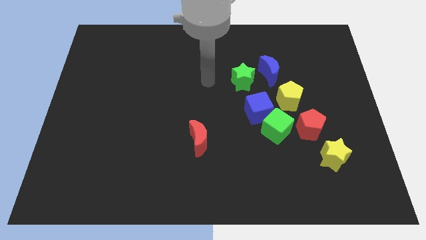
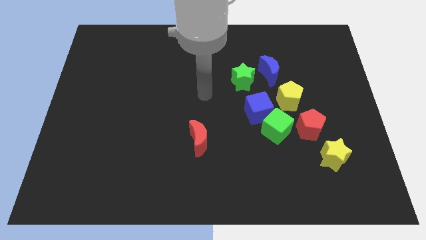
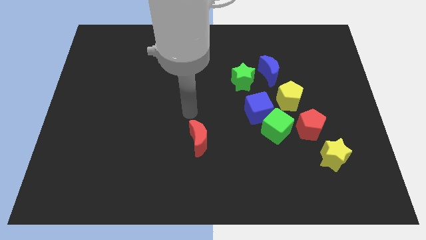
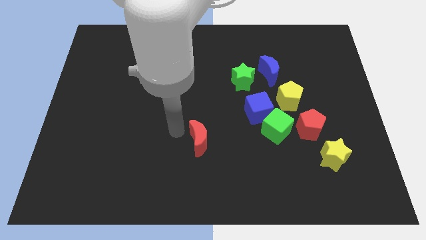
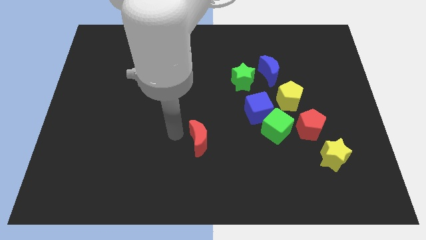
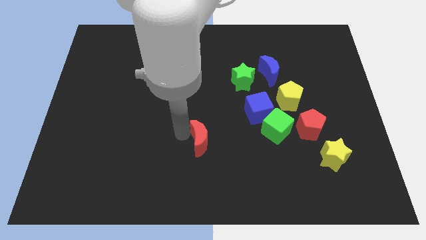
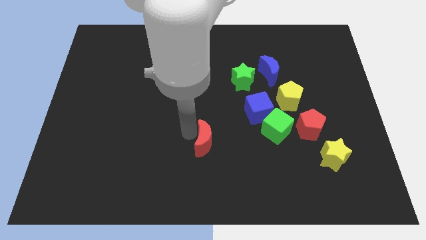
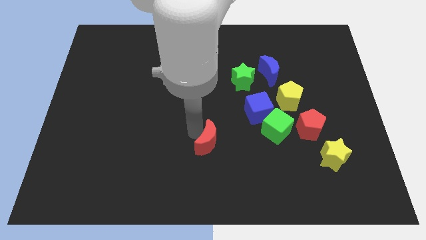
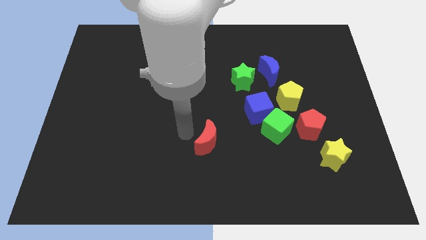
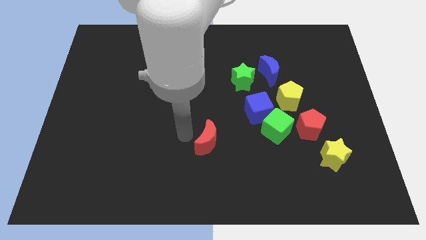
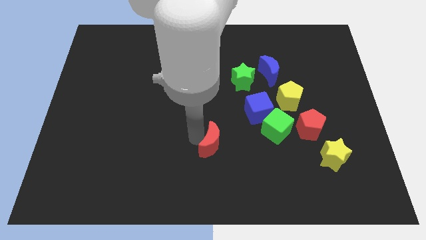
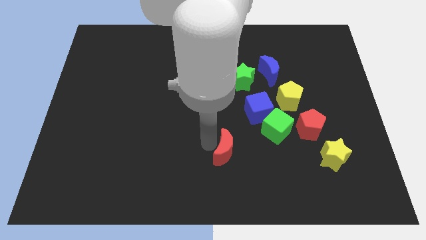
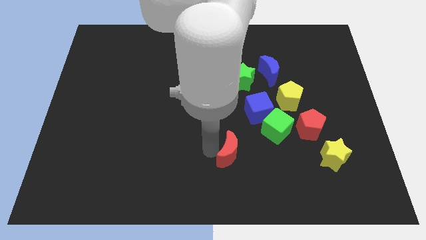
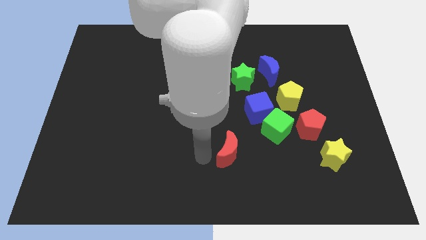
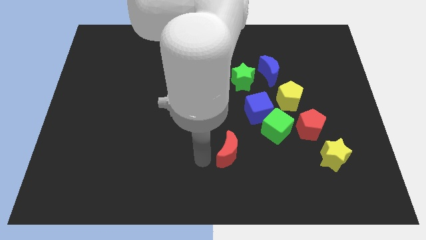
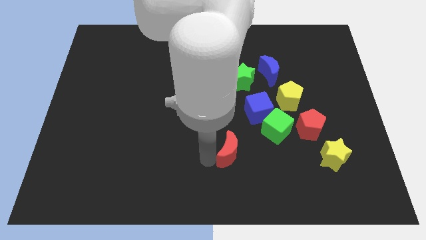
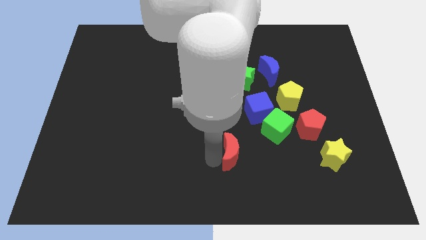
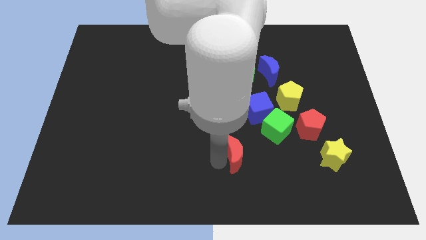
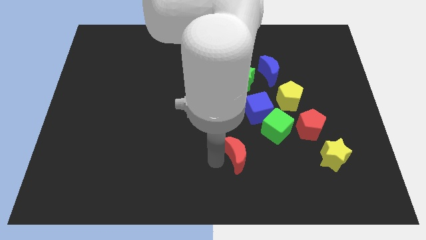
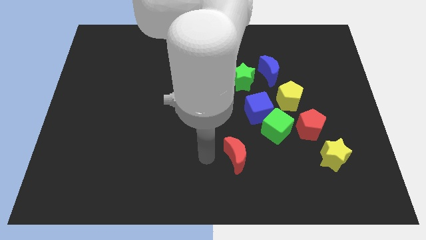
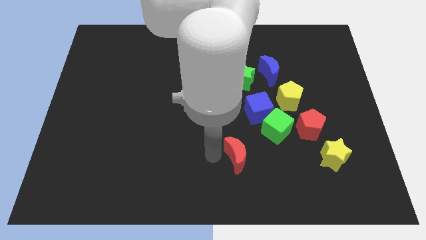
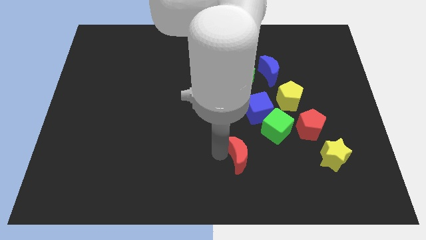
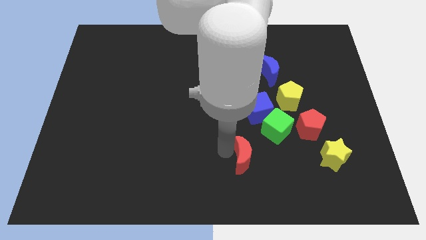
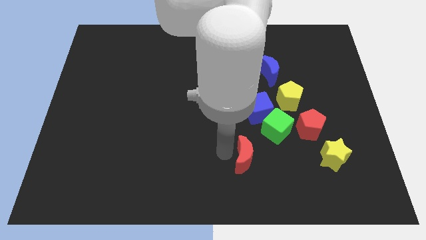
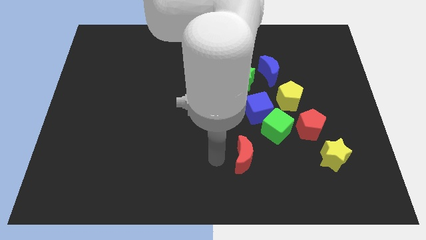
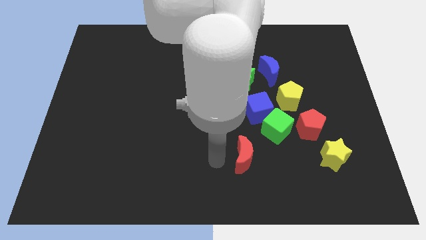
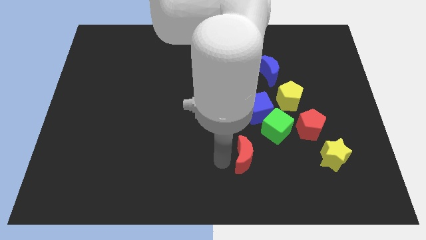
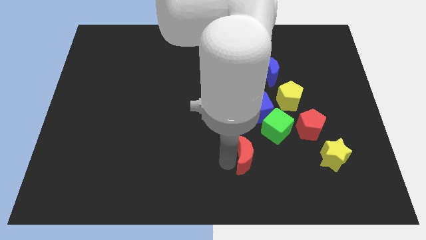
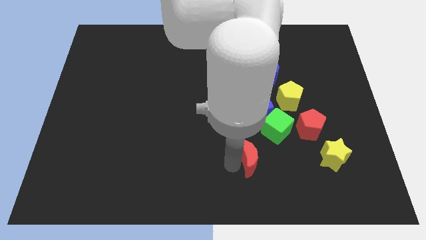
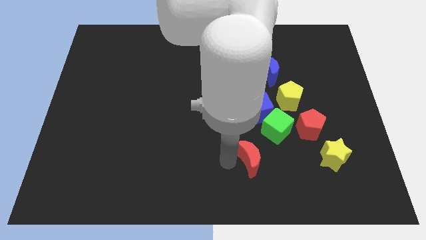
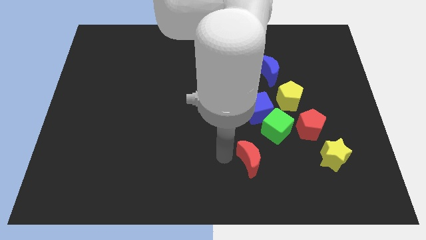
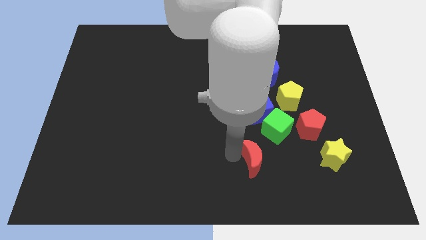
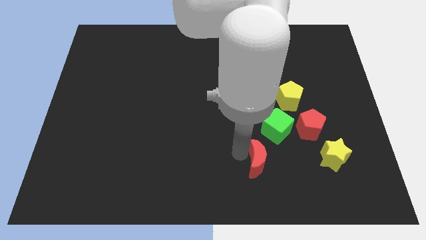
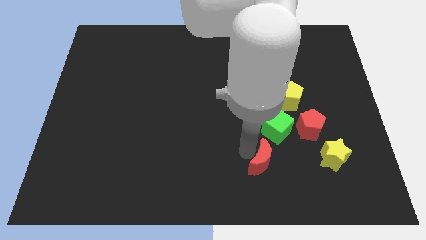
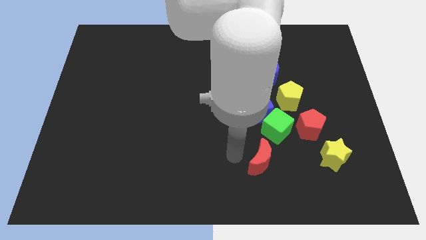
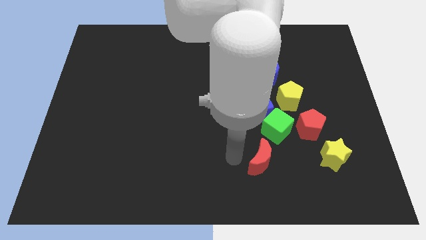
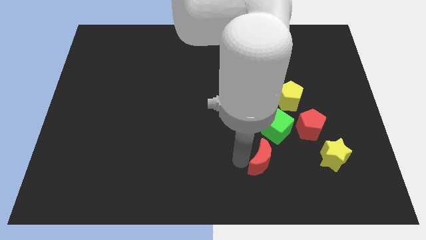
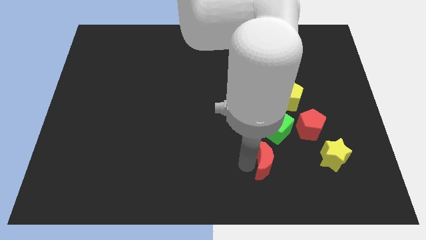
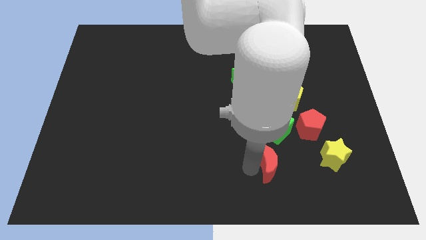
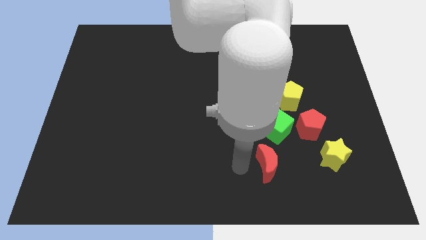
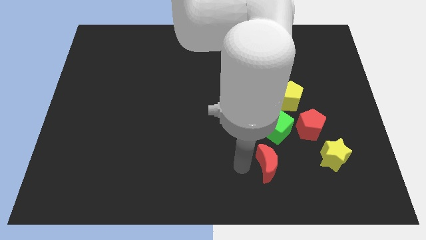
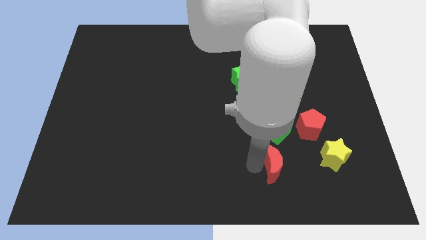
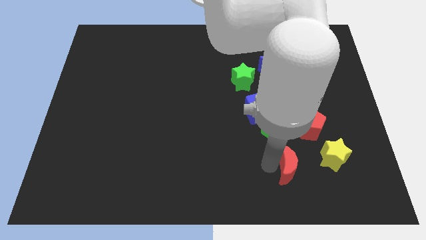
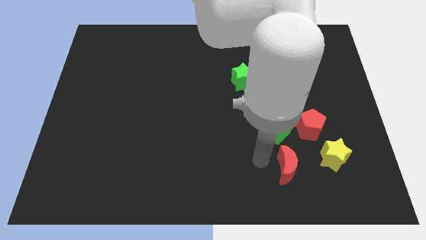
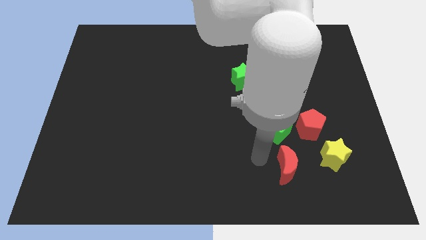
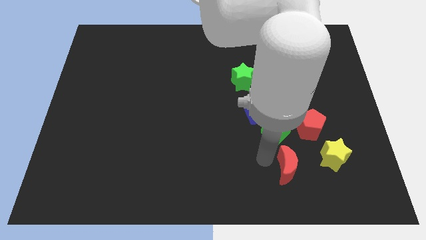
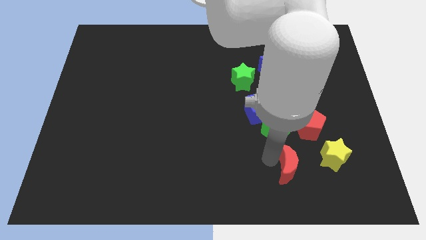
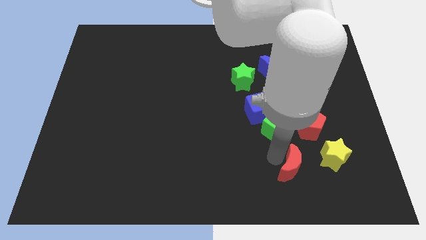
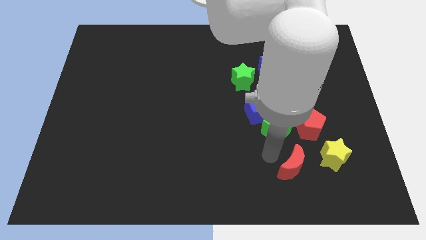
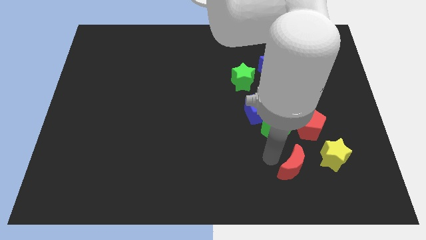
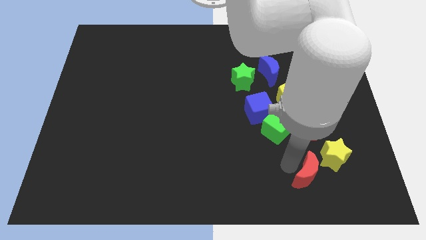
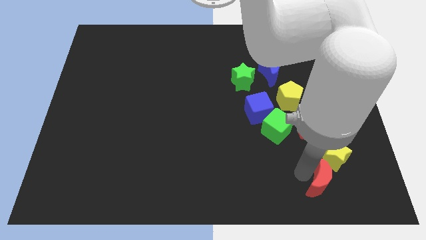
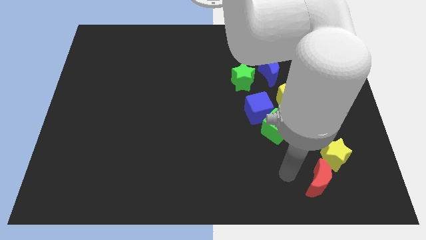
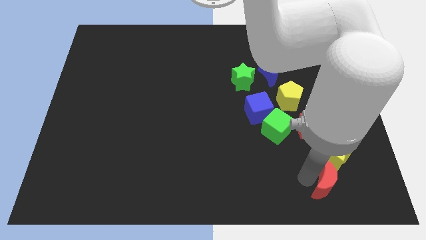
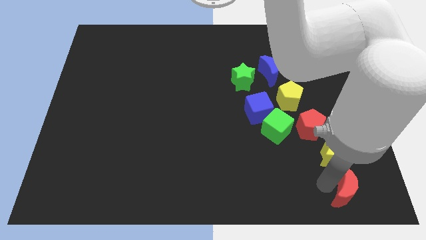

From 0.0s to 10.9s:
slide the red moon to the bottom right of the board

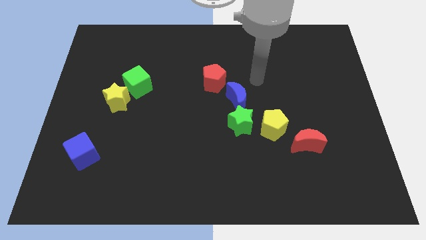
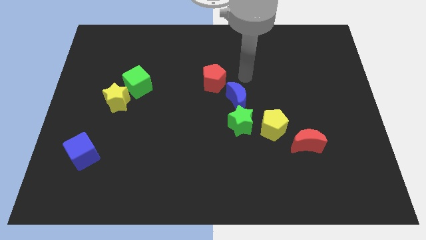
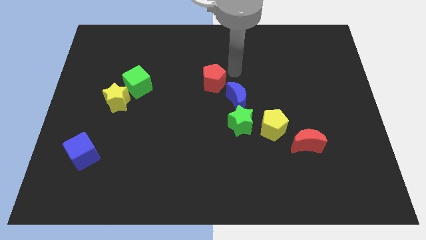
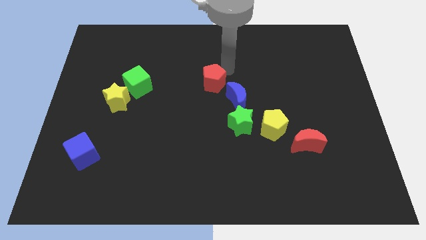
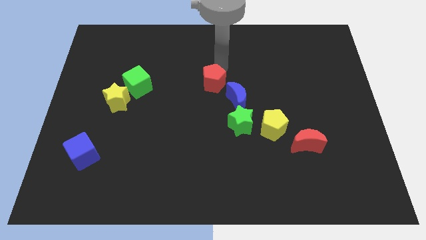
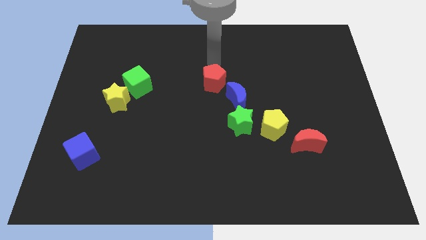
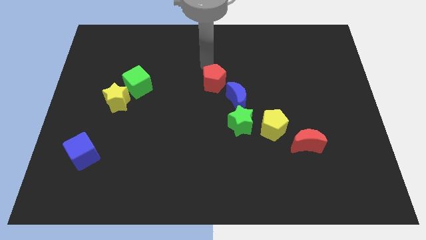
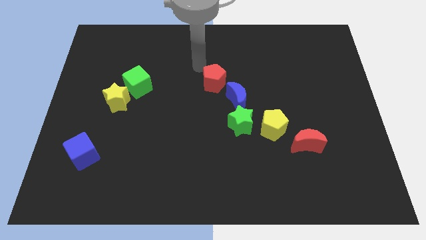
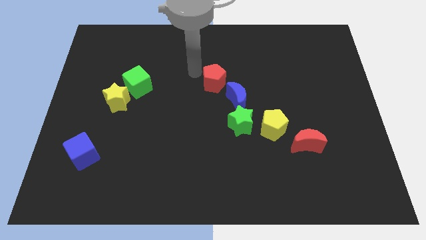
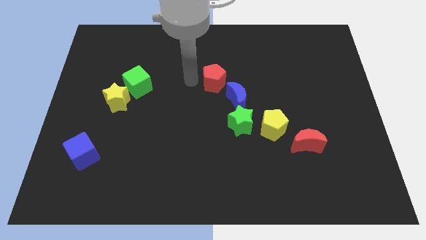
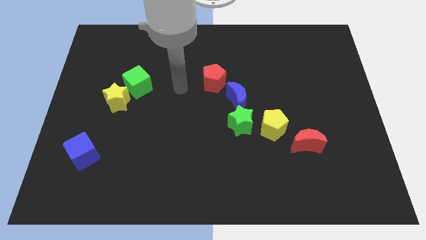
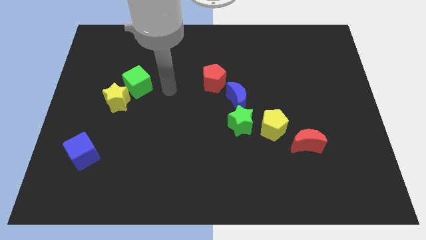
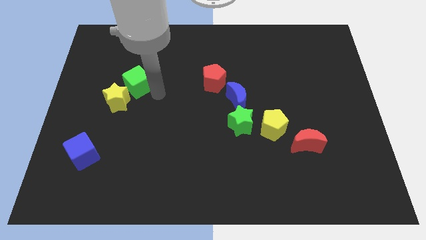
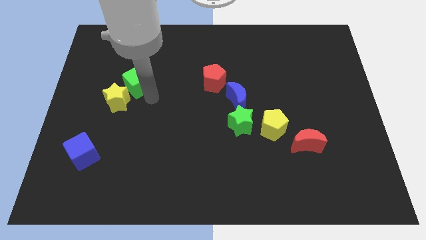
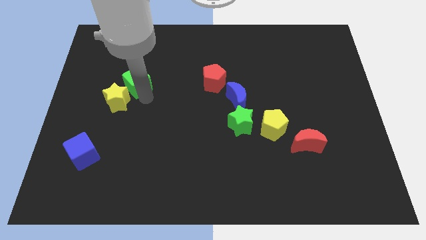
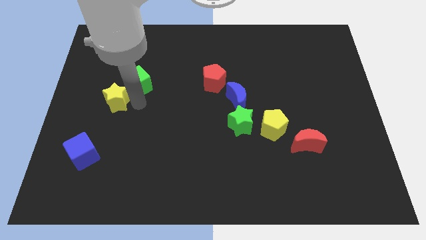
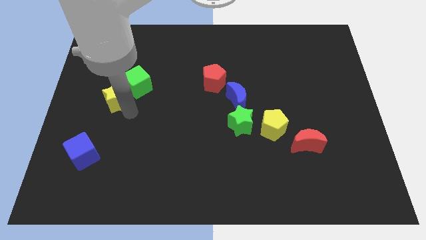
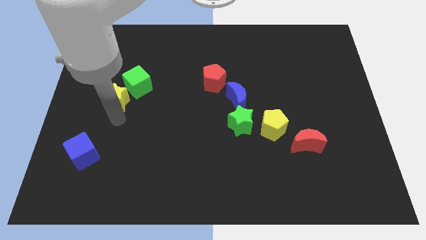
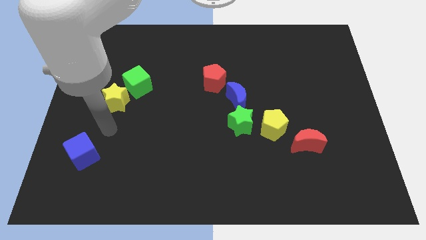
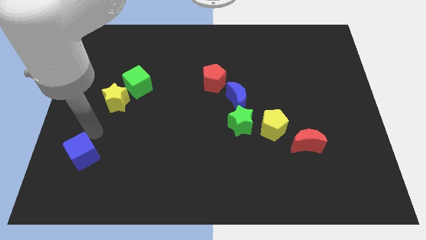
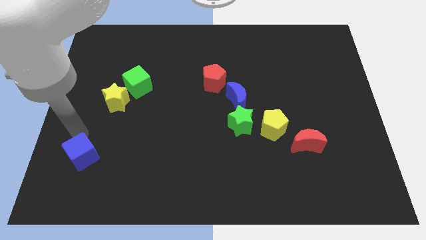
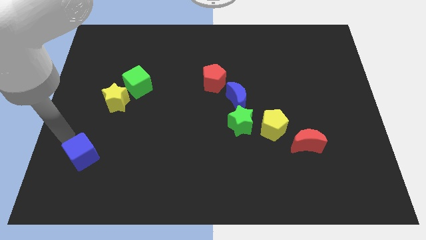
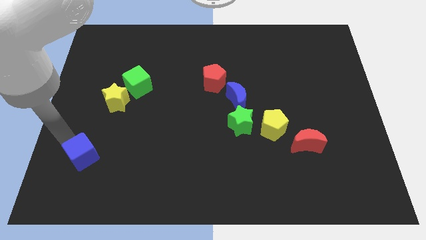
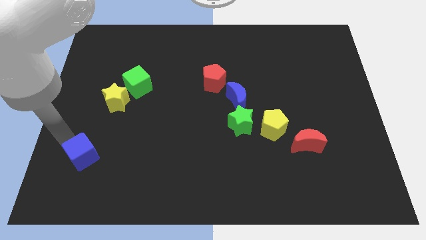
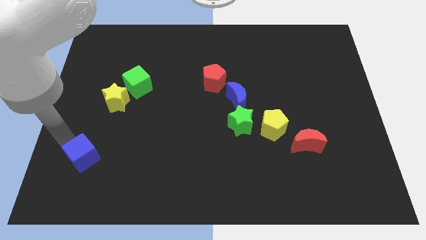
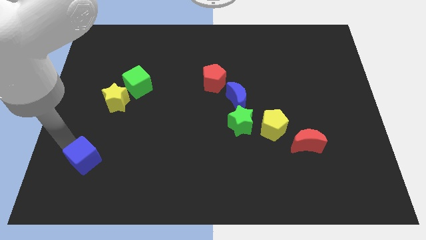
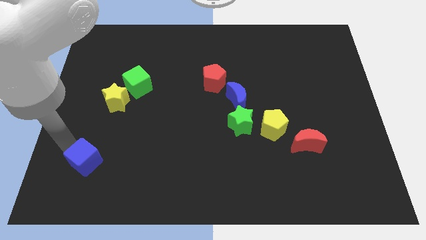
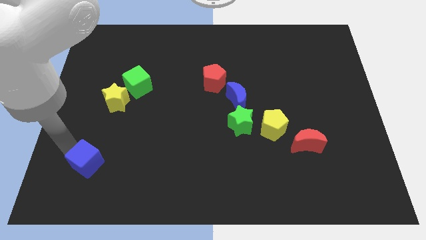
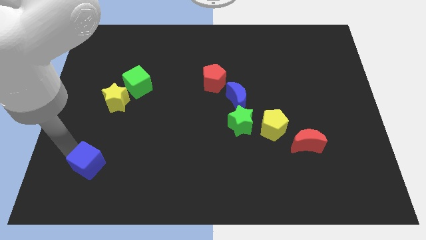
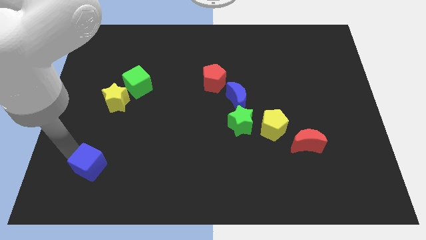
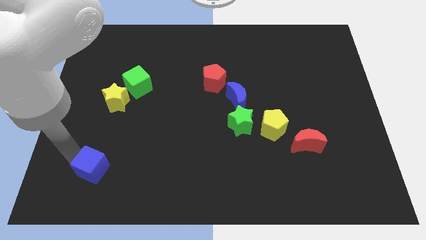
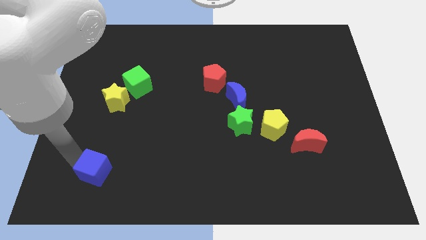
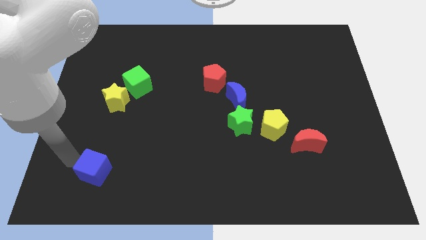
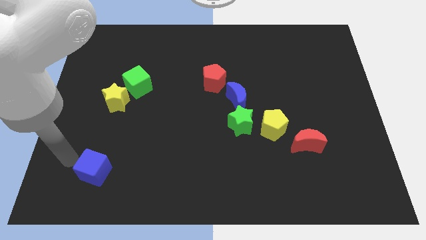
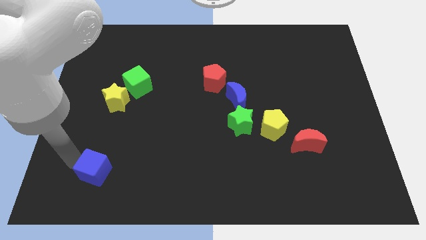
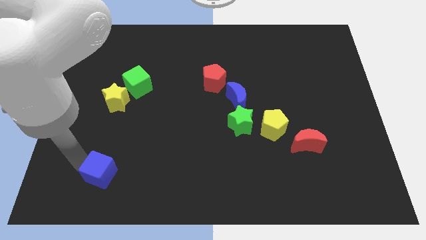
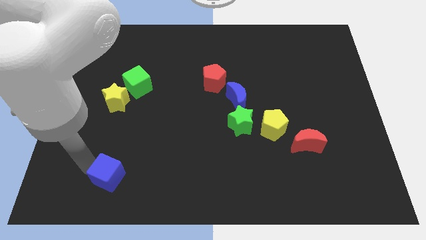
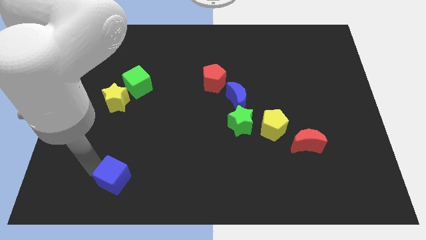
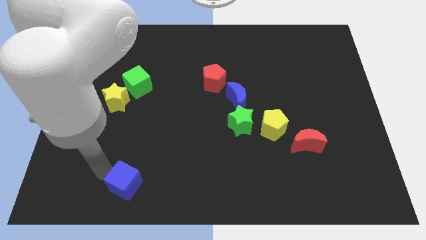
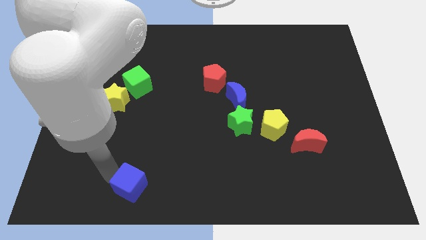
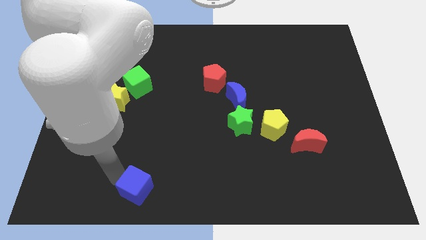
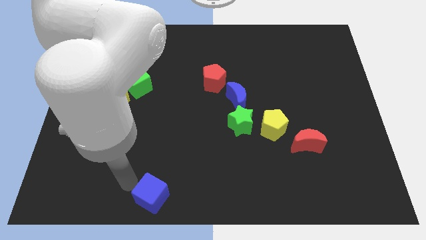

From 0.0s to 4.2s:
push the blue cube to the bottom
